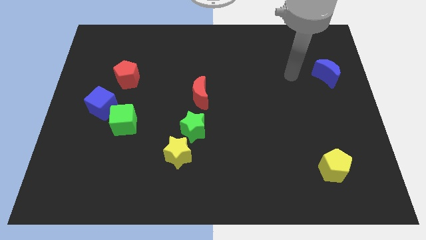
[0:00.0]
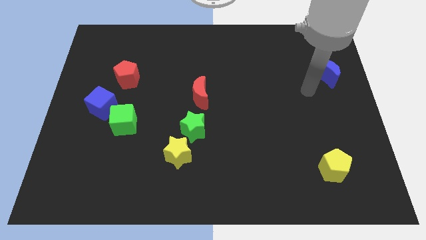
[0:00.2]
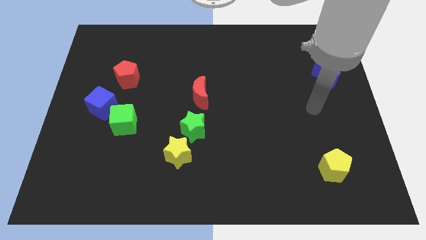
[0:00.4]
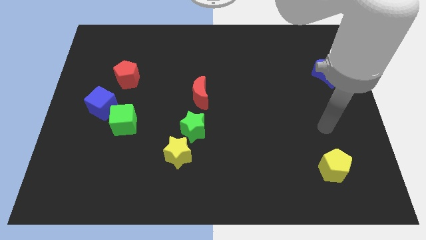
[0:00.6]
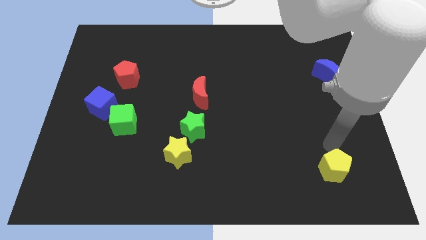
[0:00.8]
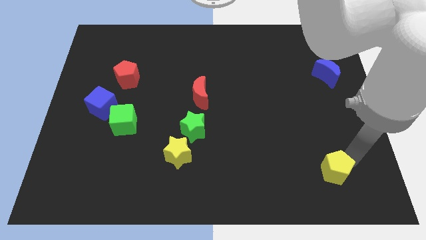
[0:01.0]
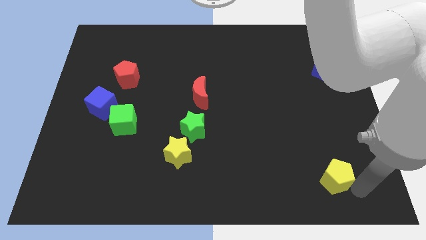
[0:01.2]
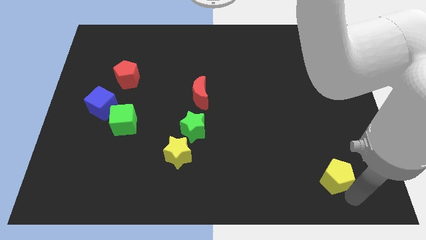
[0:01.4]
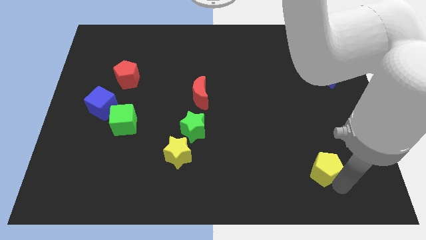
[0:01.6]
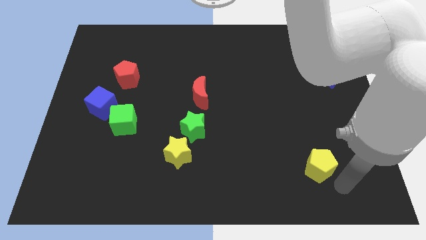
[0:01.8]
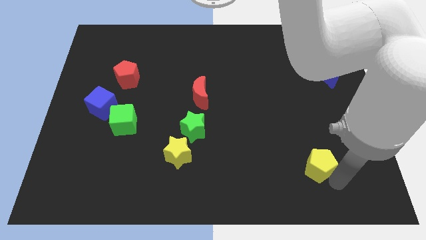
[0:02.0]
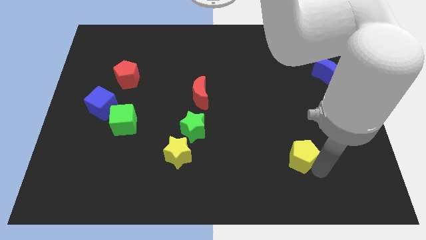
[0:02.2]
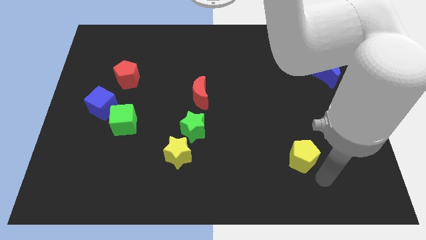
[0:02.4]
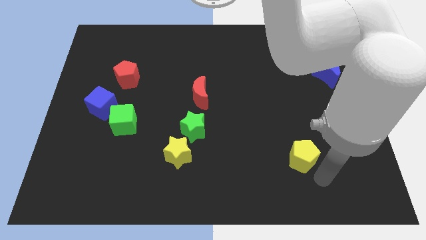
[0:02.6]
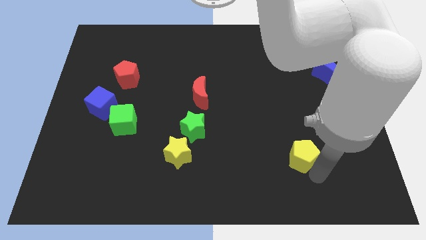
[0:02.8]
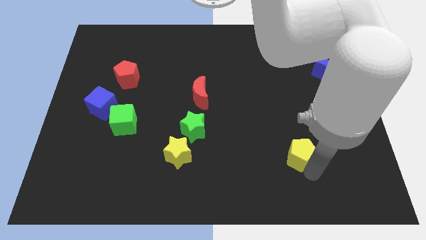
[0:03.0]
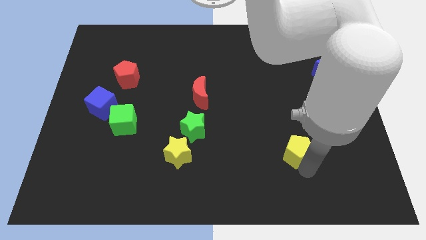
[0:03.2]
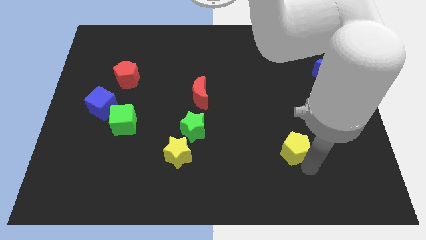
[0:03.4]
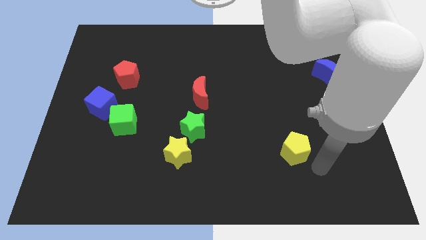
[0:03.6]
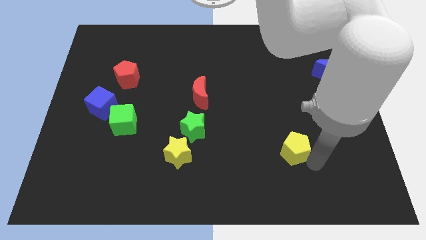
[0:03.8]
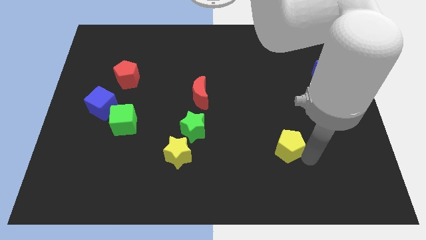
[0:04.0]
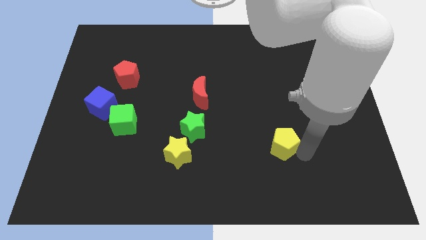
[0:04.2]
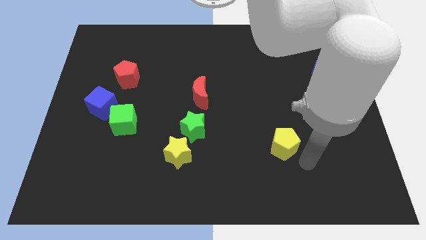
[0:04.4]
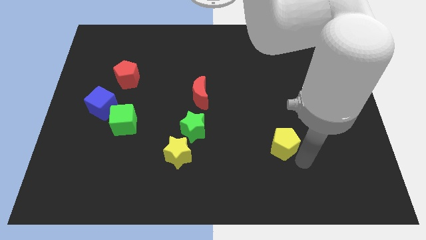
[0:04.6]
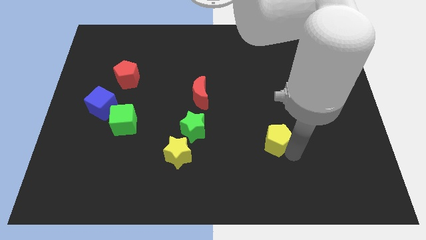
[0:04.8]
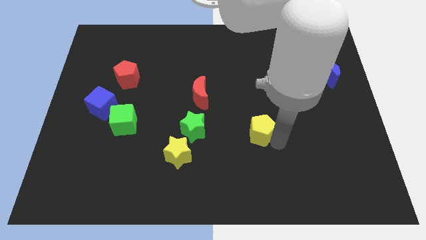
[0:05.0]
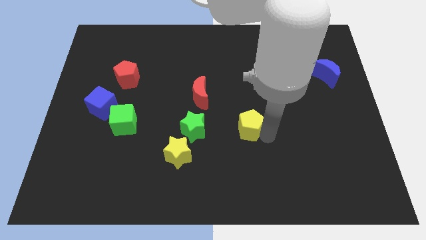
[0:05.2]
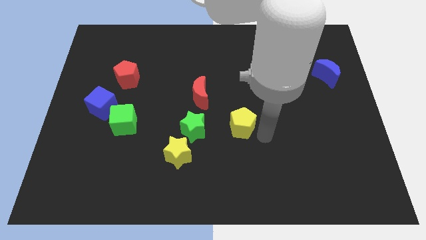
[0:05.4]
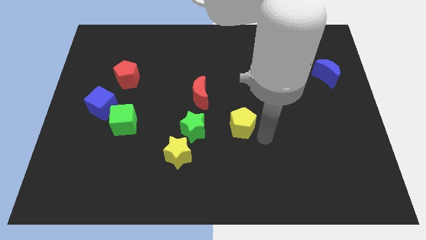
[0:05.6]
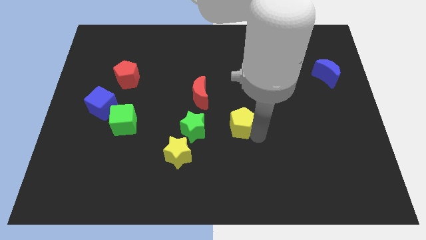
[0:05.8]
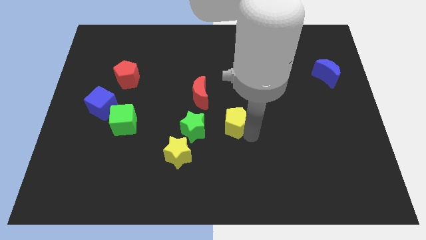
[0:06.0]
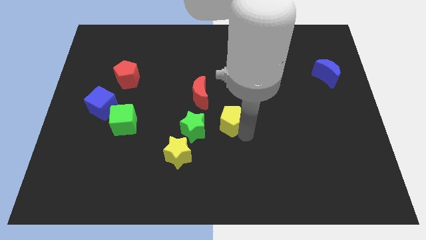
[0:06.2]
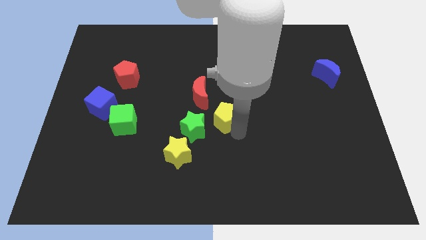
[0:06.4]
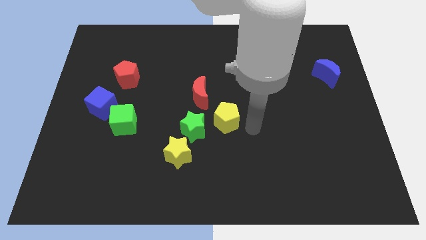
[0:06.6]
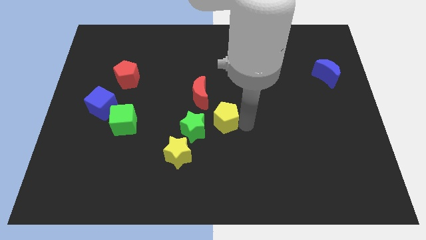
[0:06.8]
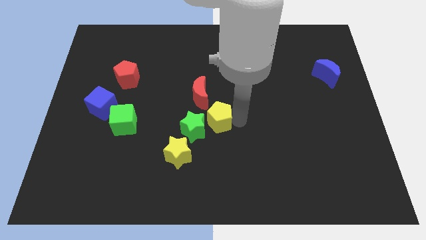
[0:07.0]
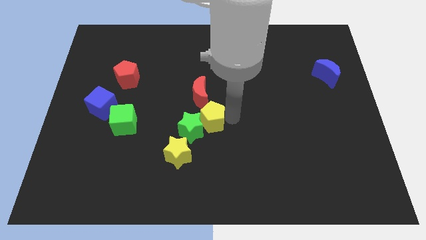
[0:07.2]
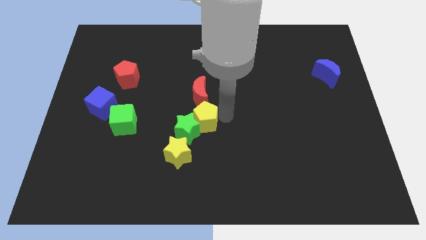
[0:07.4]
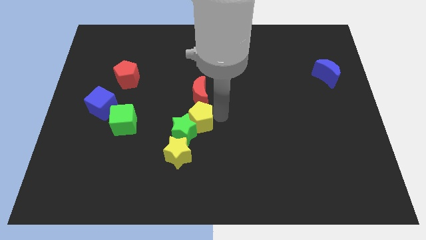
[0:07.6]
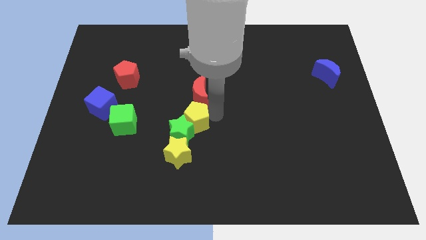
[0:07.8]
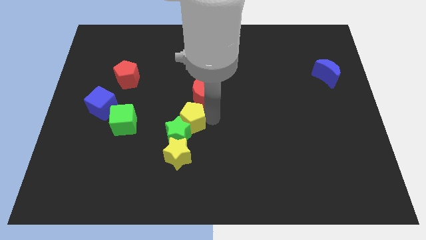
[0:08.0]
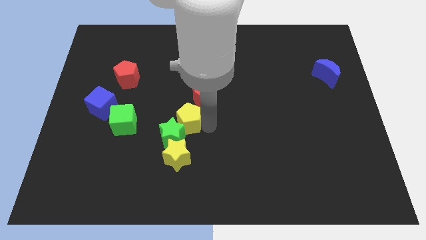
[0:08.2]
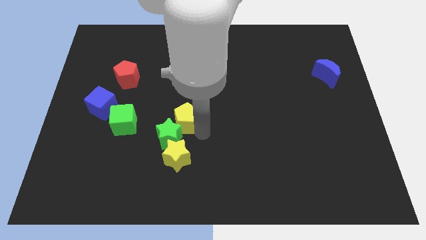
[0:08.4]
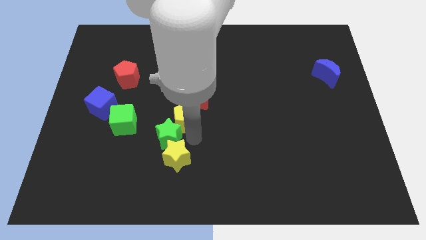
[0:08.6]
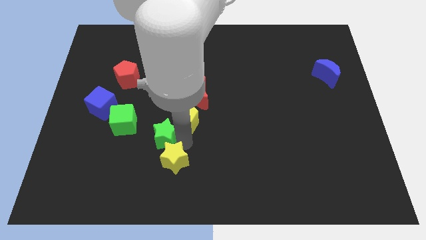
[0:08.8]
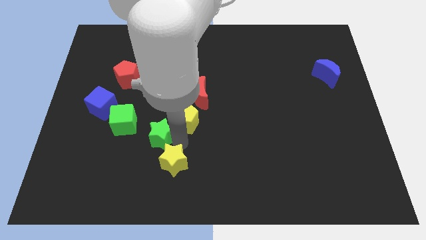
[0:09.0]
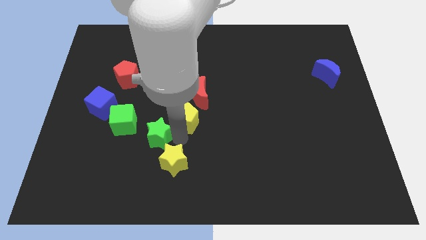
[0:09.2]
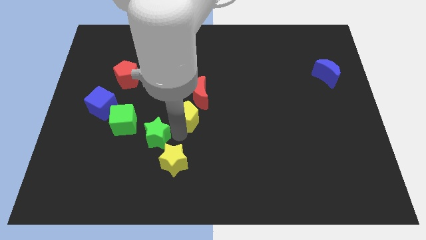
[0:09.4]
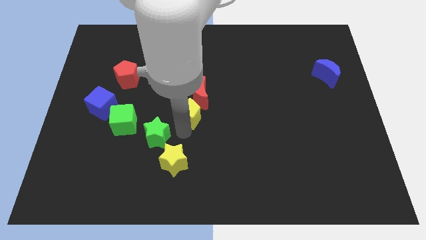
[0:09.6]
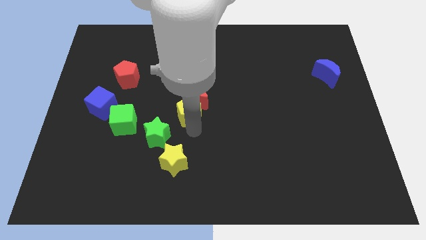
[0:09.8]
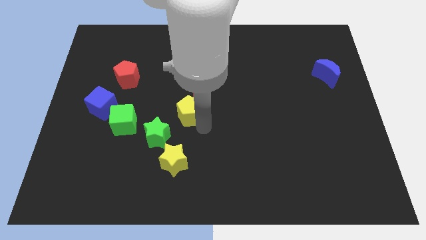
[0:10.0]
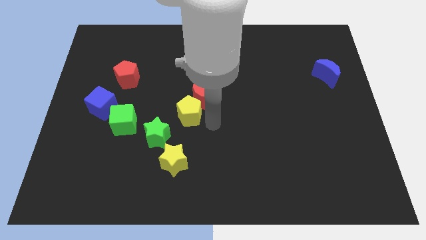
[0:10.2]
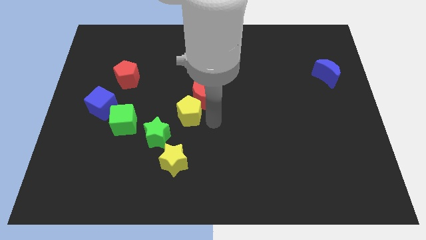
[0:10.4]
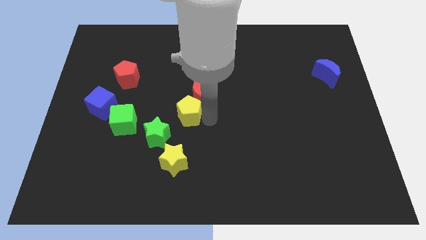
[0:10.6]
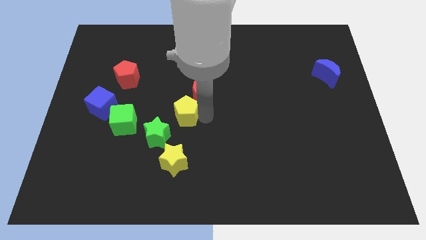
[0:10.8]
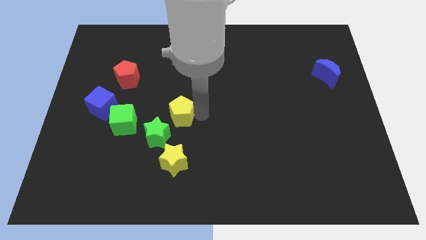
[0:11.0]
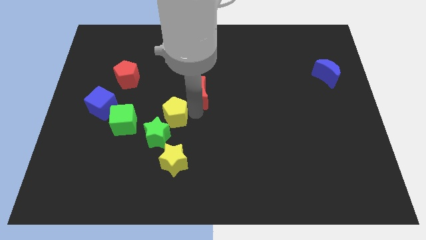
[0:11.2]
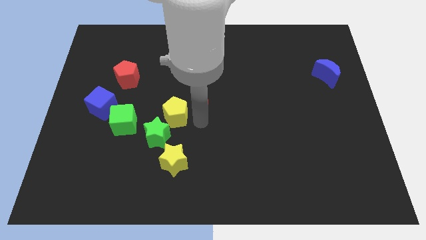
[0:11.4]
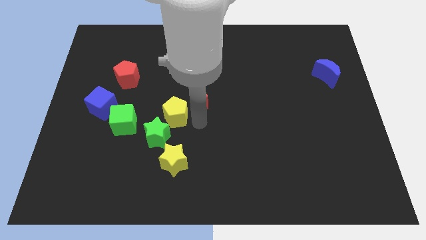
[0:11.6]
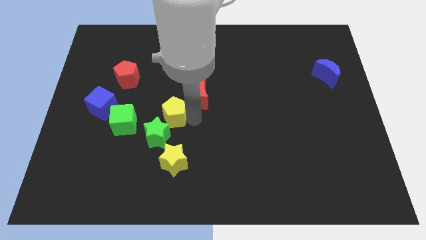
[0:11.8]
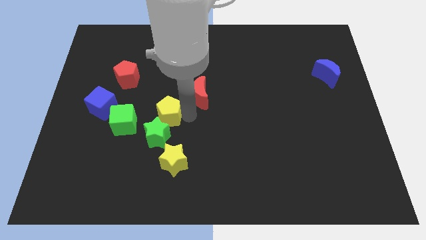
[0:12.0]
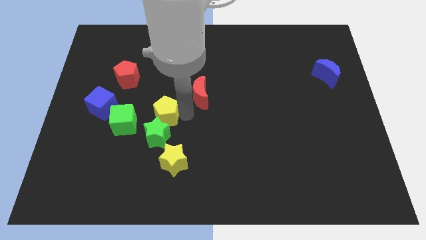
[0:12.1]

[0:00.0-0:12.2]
slide the yellow pentagon right of the blue cube

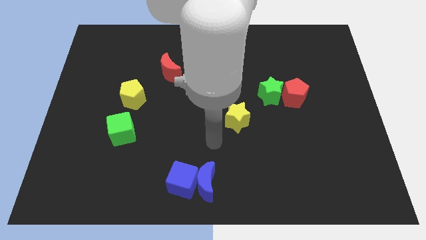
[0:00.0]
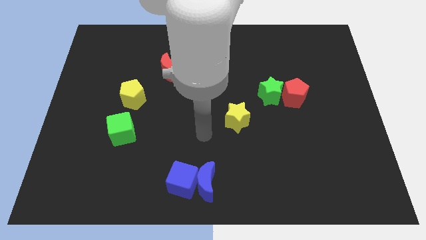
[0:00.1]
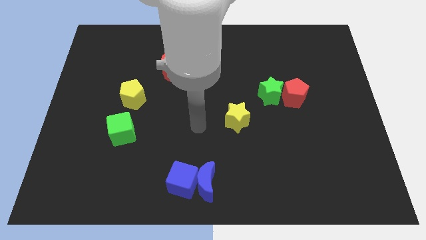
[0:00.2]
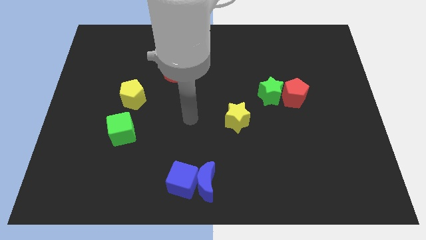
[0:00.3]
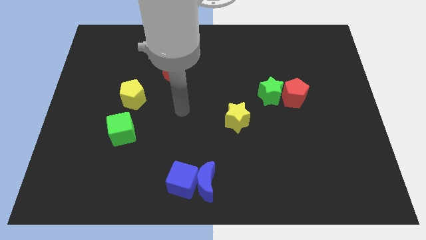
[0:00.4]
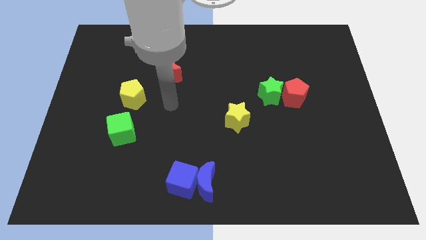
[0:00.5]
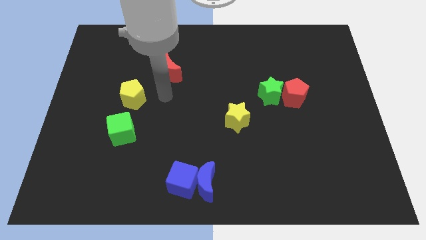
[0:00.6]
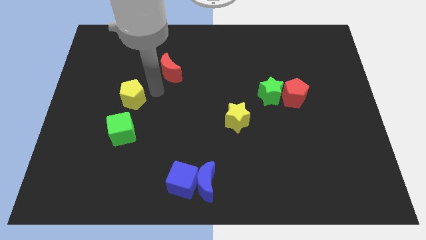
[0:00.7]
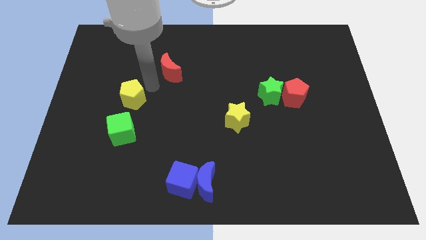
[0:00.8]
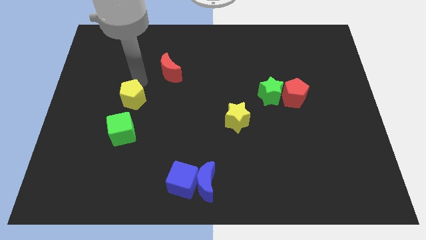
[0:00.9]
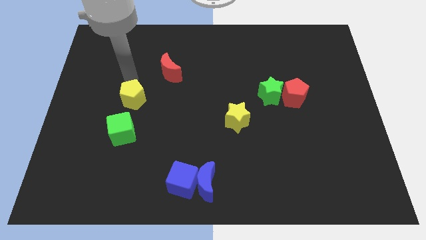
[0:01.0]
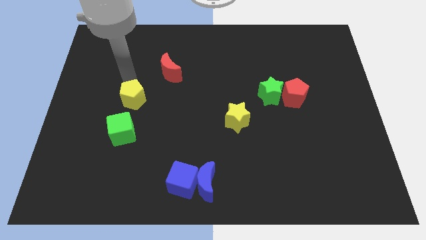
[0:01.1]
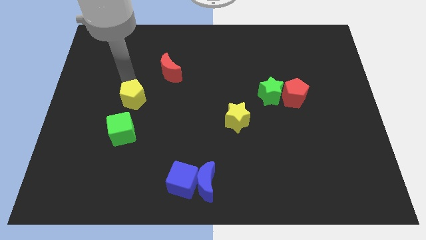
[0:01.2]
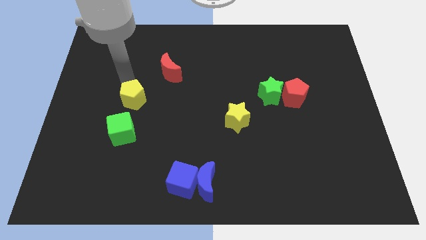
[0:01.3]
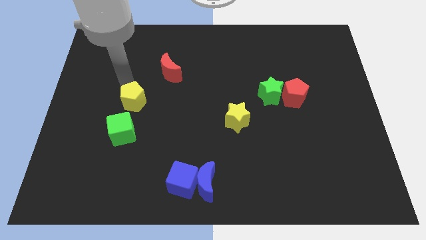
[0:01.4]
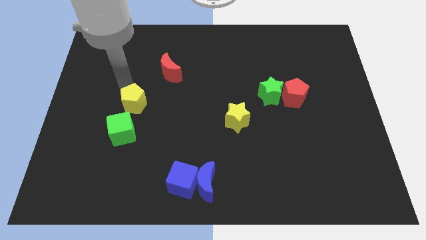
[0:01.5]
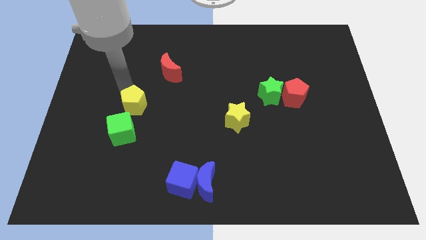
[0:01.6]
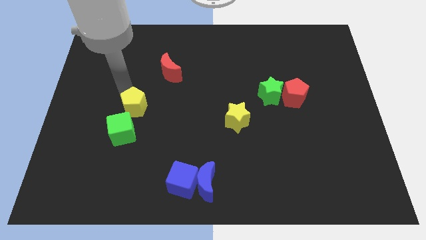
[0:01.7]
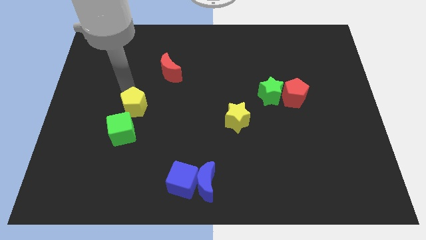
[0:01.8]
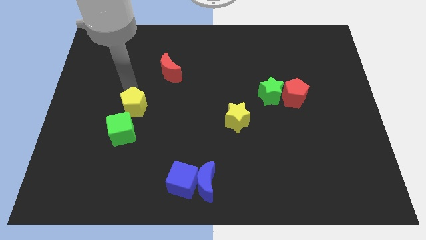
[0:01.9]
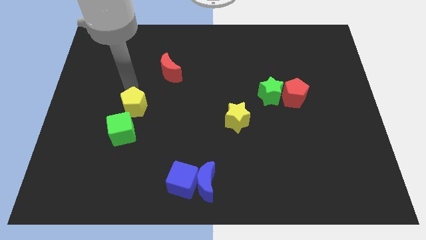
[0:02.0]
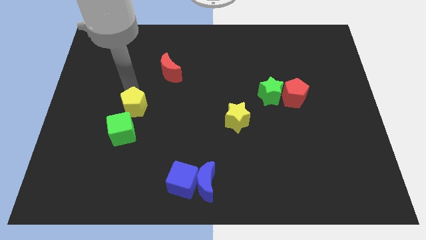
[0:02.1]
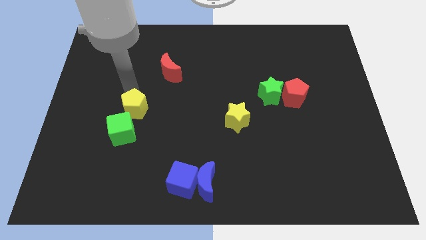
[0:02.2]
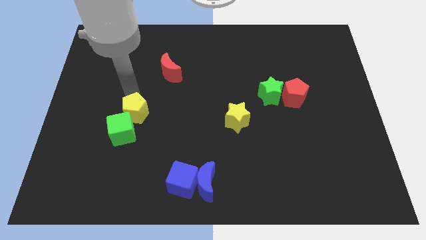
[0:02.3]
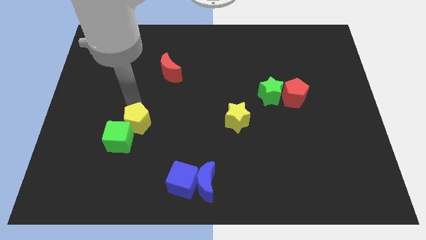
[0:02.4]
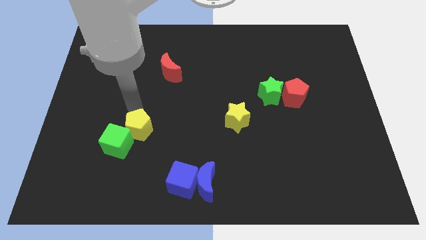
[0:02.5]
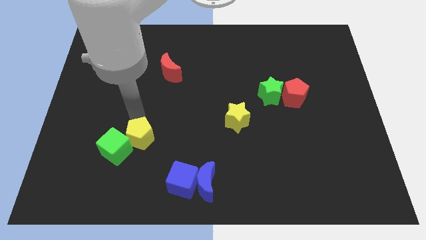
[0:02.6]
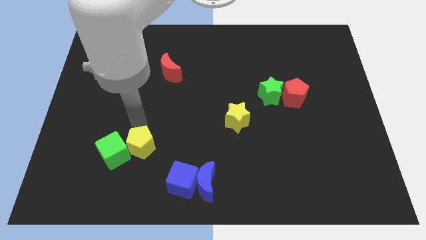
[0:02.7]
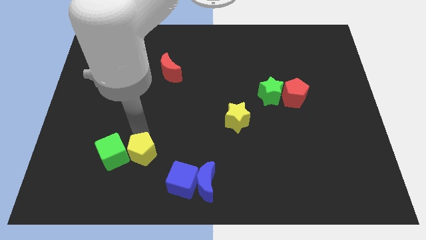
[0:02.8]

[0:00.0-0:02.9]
put the yellow pentagon diagonally down and to the right of the green cube
